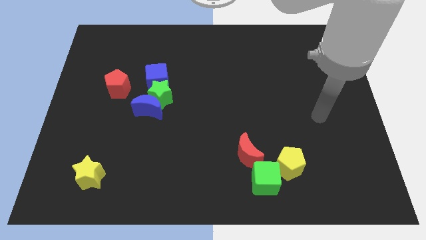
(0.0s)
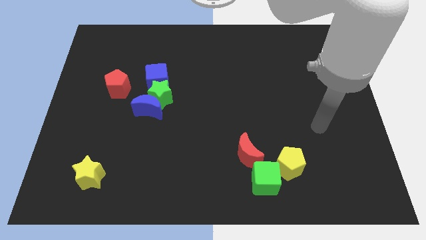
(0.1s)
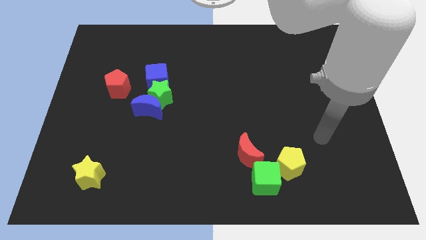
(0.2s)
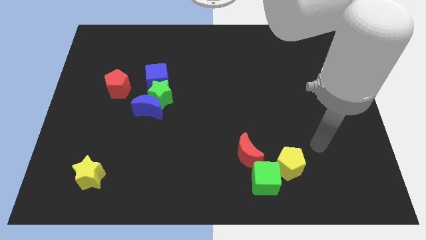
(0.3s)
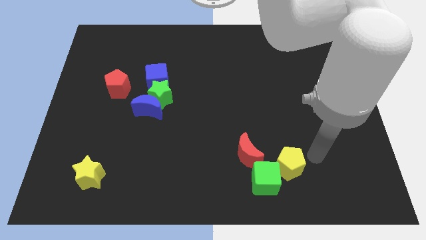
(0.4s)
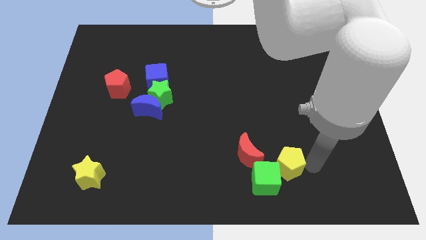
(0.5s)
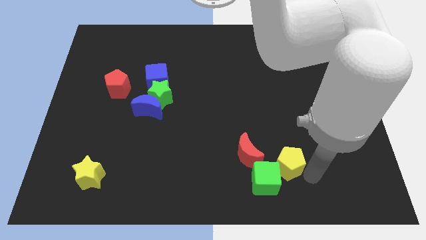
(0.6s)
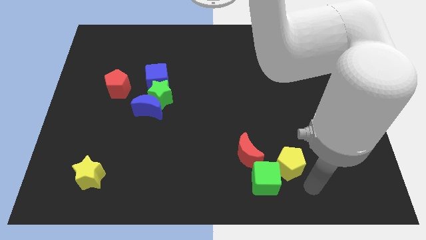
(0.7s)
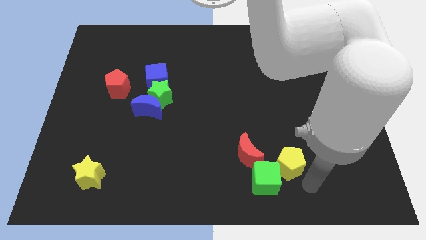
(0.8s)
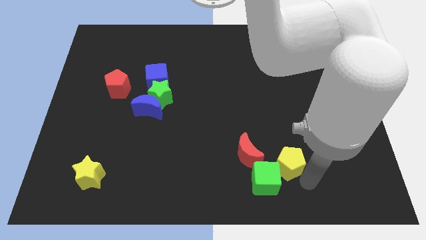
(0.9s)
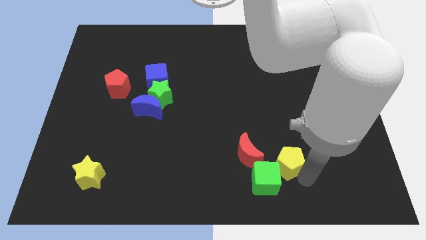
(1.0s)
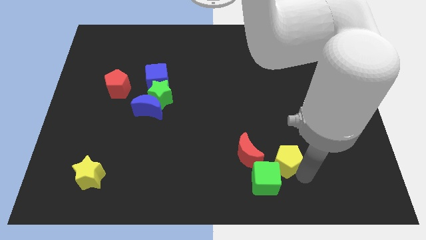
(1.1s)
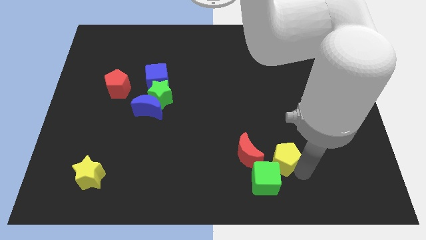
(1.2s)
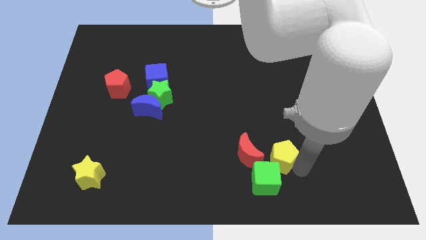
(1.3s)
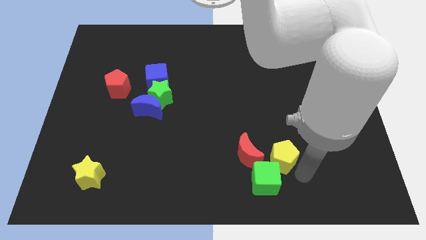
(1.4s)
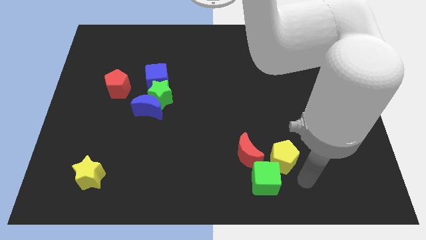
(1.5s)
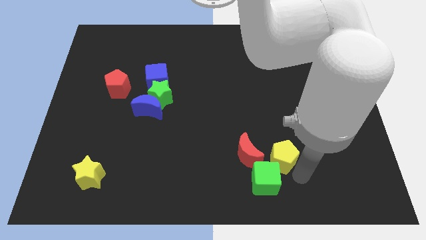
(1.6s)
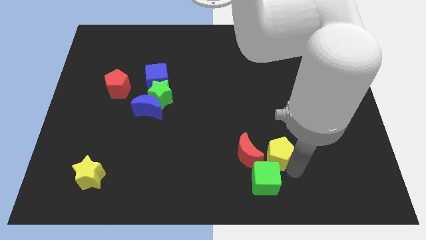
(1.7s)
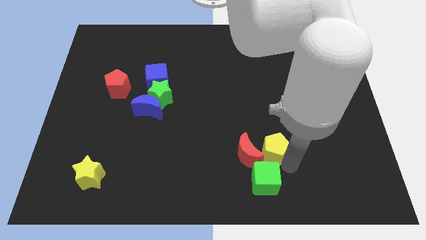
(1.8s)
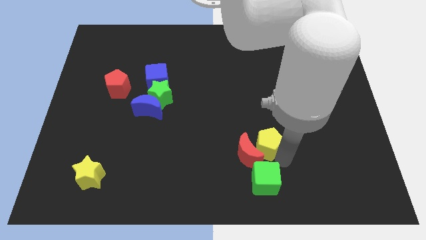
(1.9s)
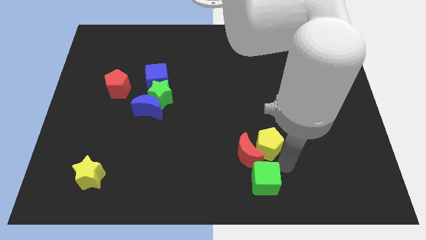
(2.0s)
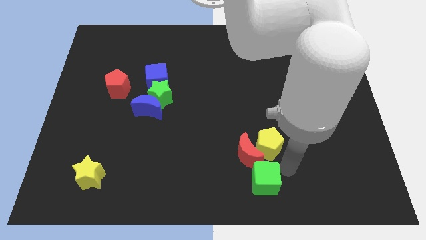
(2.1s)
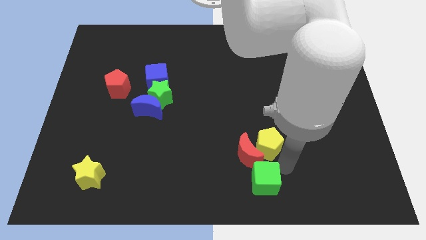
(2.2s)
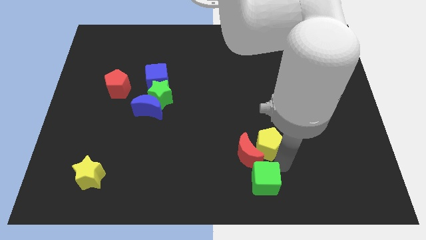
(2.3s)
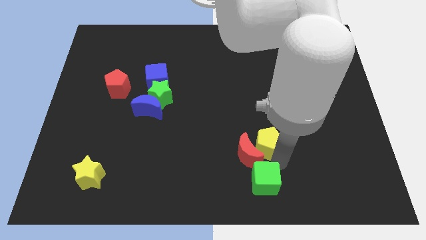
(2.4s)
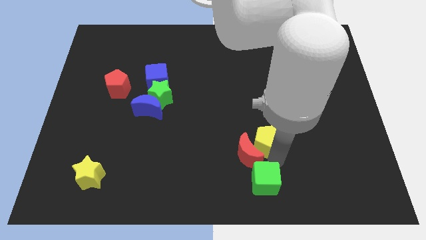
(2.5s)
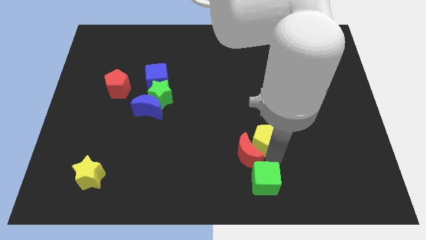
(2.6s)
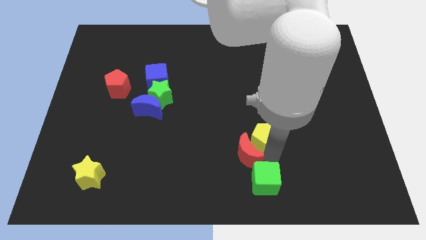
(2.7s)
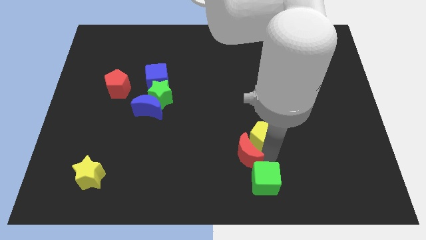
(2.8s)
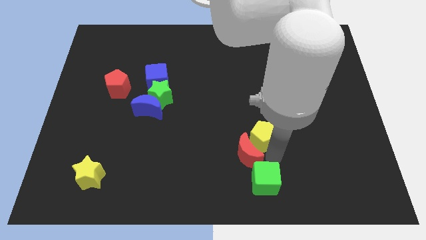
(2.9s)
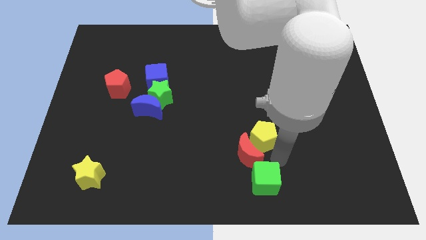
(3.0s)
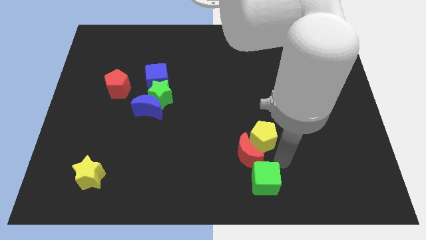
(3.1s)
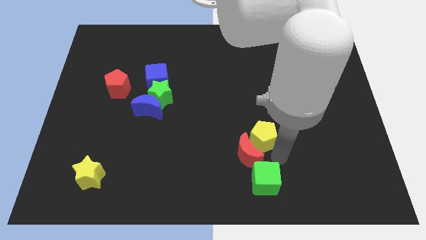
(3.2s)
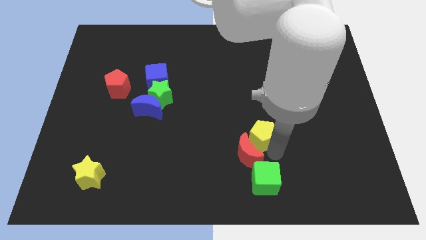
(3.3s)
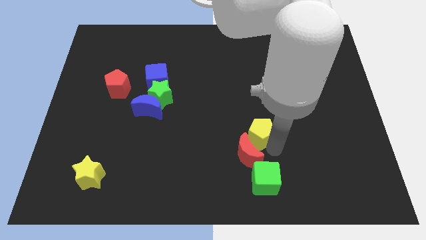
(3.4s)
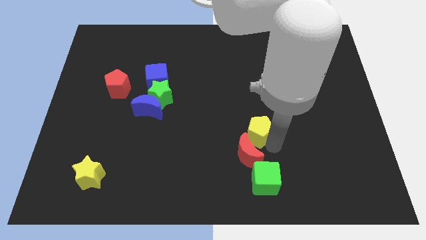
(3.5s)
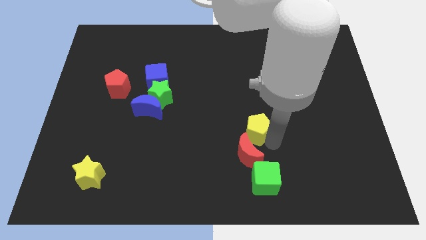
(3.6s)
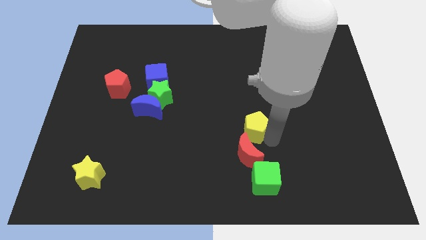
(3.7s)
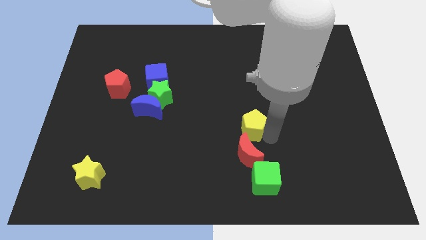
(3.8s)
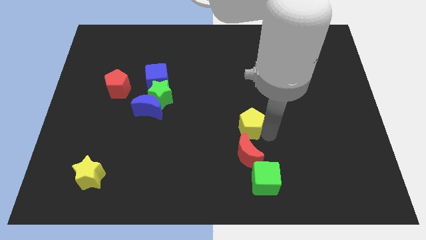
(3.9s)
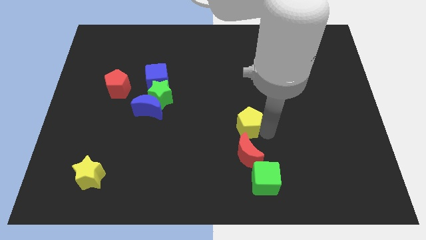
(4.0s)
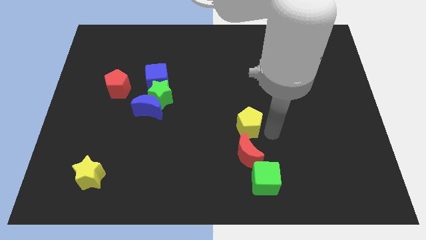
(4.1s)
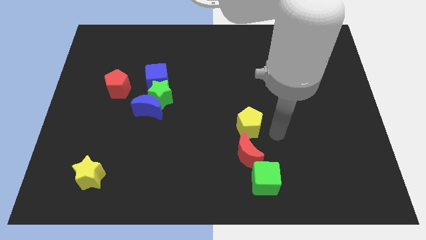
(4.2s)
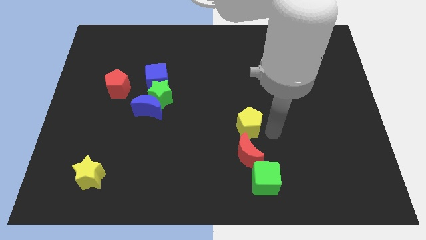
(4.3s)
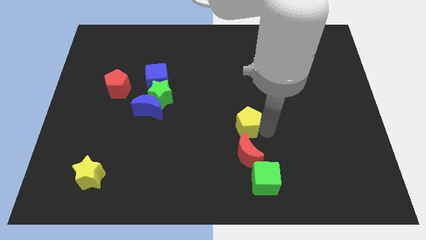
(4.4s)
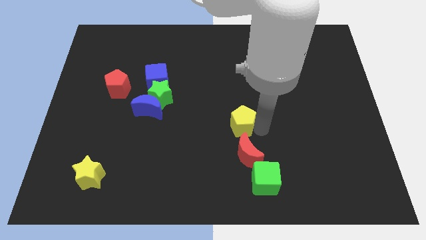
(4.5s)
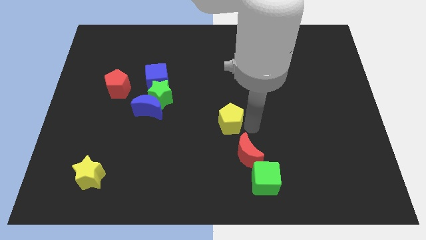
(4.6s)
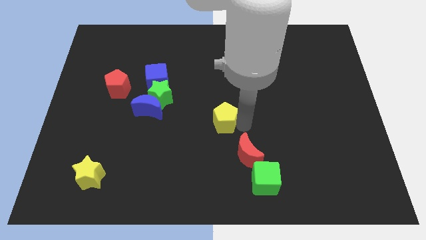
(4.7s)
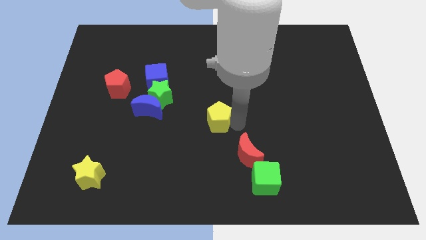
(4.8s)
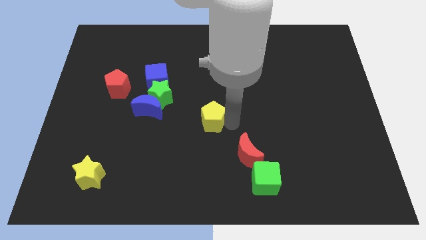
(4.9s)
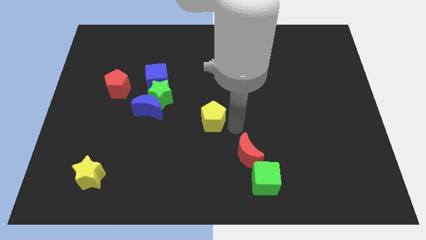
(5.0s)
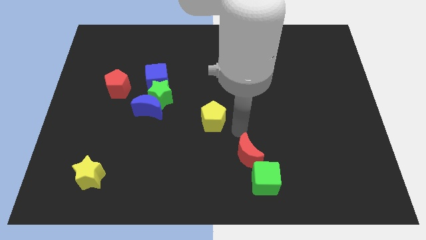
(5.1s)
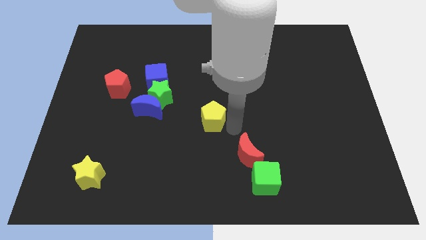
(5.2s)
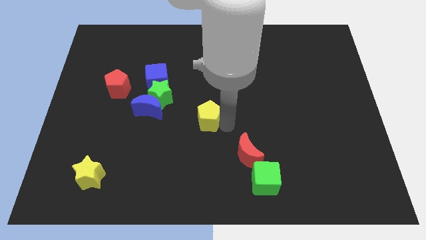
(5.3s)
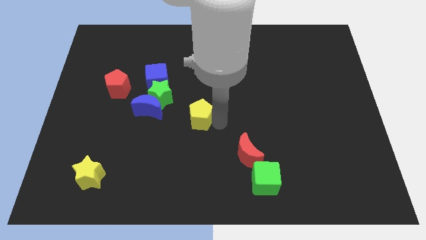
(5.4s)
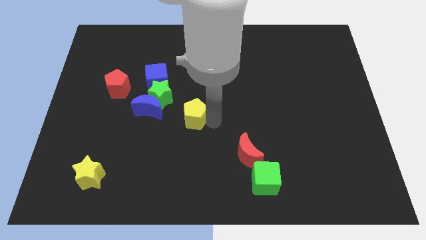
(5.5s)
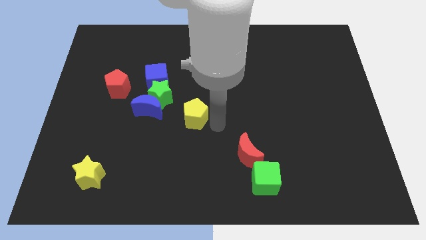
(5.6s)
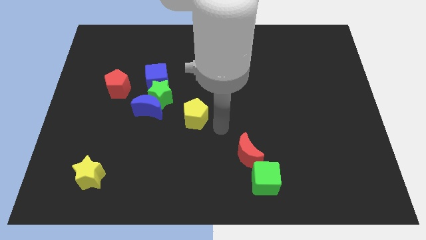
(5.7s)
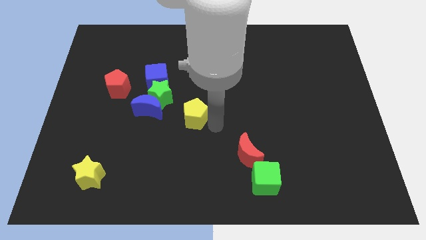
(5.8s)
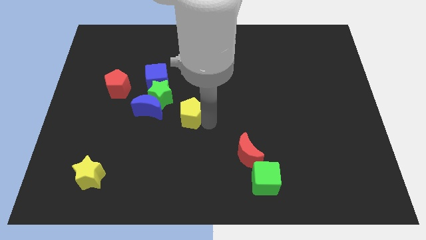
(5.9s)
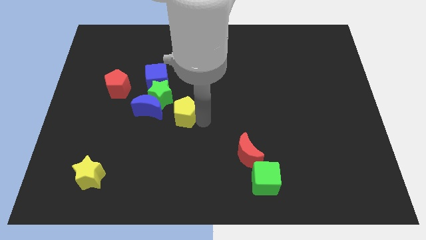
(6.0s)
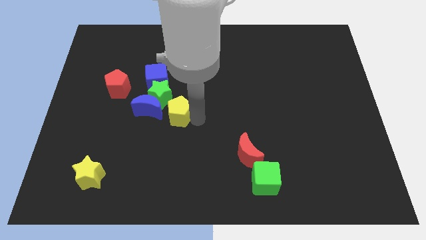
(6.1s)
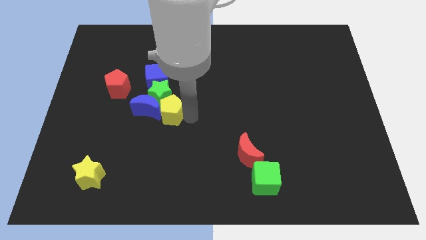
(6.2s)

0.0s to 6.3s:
put the yellow pentagon next to the blue moon

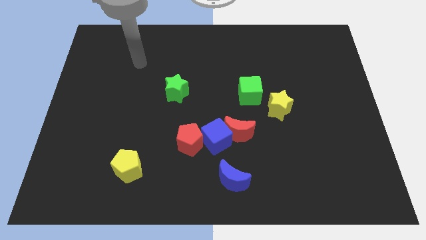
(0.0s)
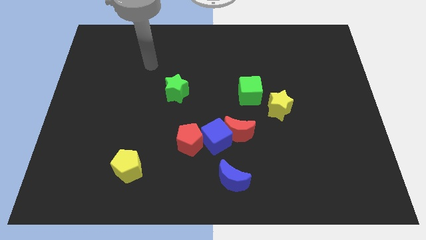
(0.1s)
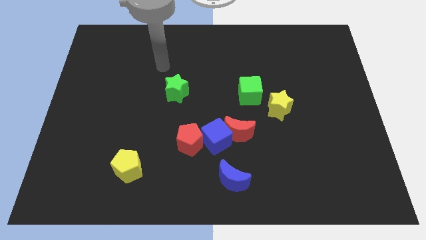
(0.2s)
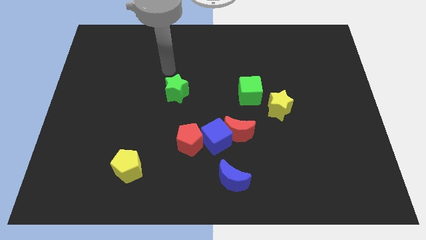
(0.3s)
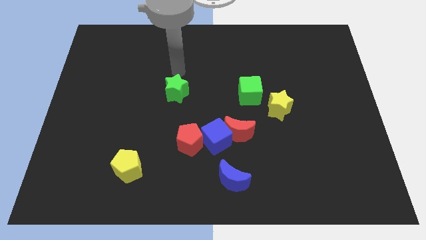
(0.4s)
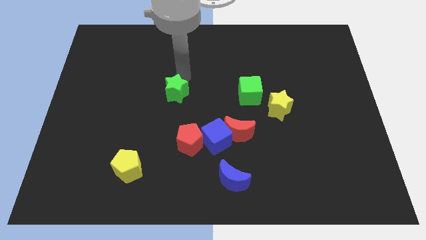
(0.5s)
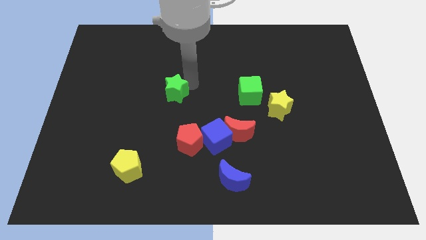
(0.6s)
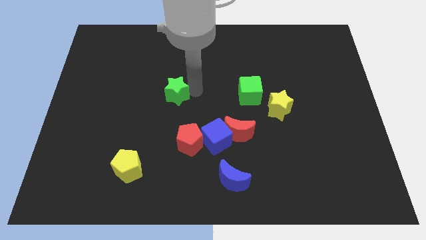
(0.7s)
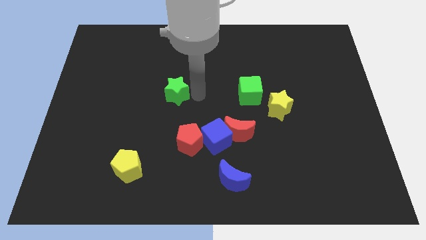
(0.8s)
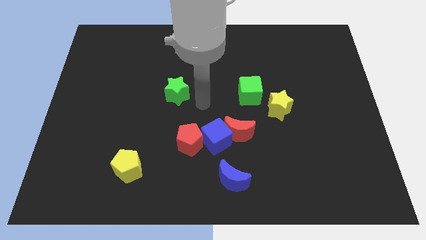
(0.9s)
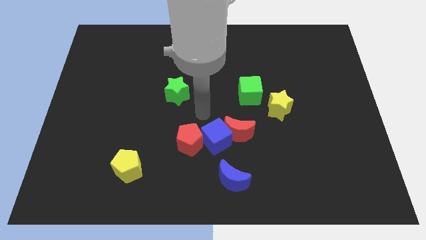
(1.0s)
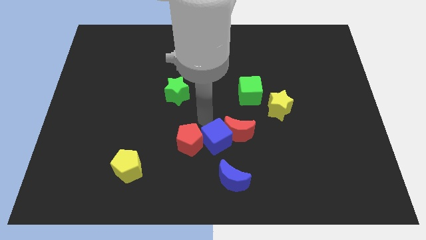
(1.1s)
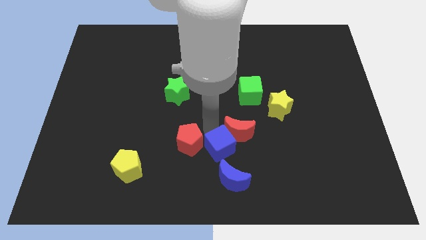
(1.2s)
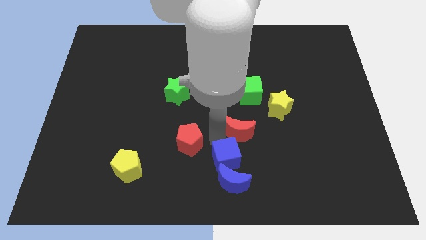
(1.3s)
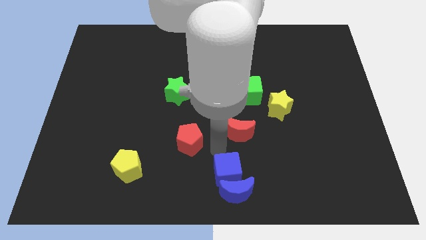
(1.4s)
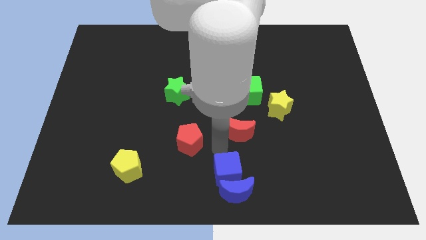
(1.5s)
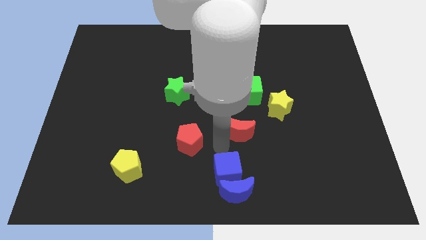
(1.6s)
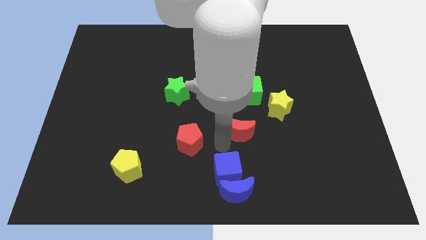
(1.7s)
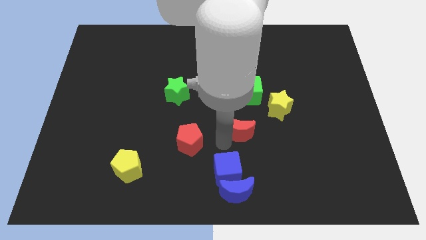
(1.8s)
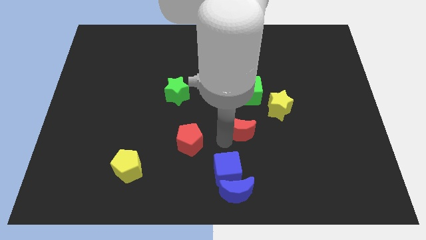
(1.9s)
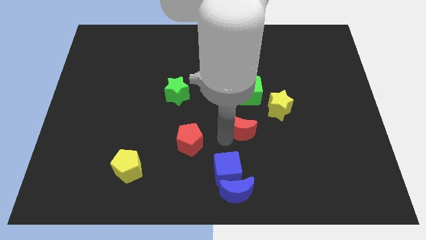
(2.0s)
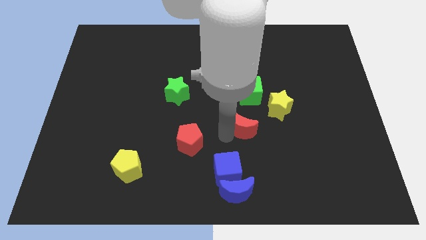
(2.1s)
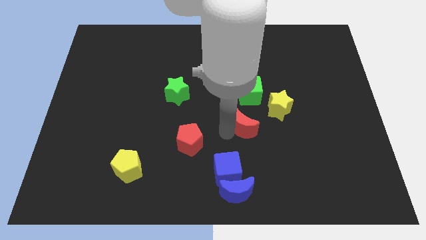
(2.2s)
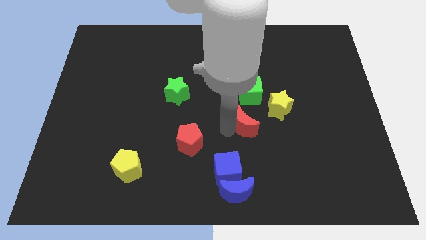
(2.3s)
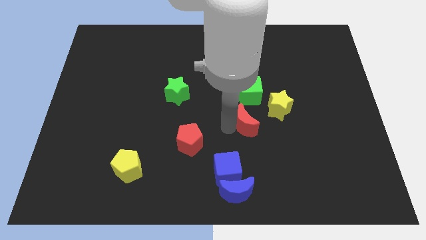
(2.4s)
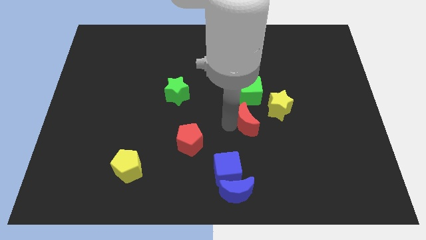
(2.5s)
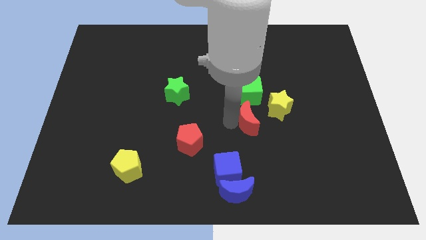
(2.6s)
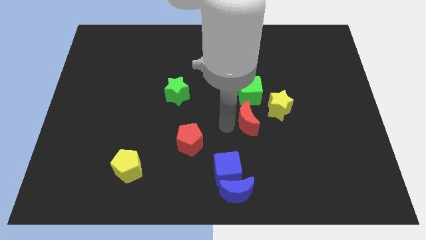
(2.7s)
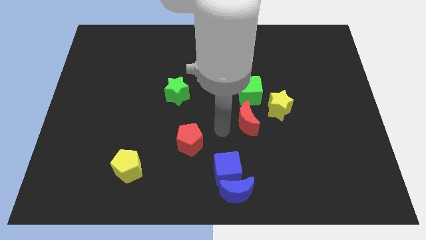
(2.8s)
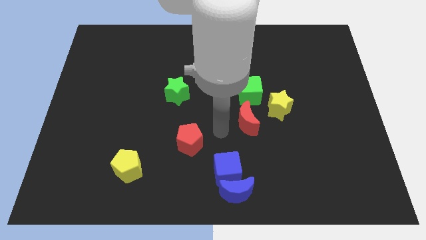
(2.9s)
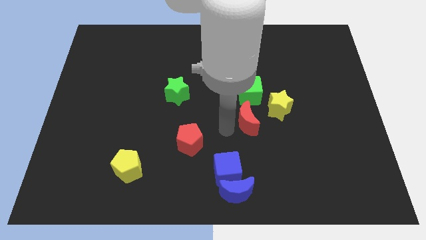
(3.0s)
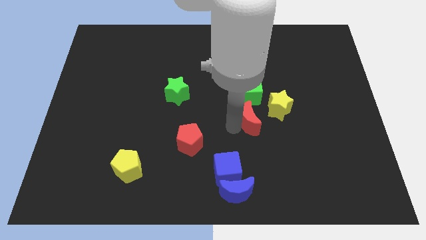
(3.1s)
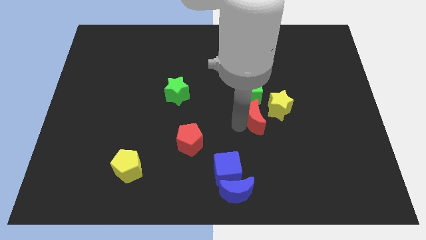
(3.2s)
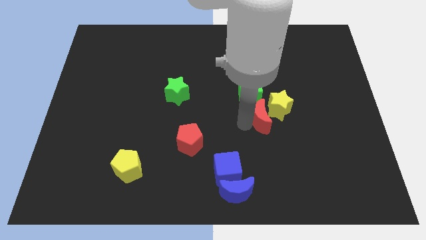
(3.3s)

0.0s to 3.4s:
move the red moon next to the yellow star
